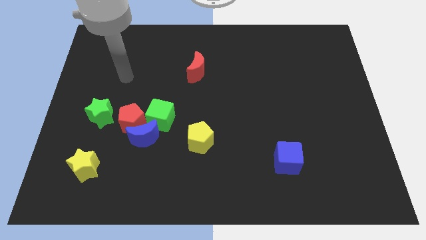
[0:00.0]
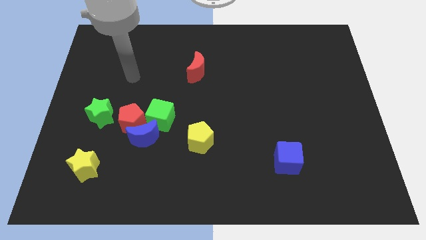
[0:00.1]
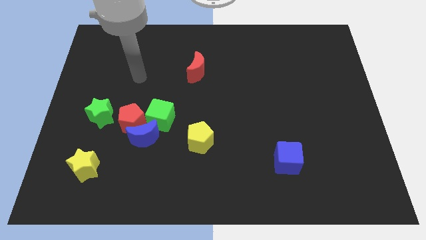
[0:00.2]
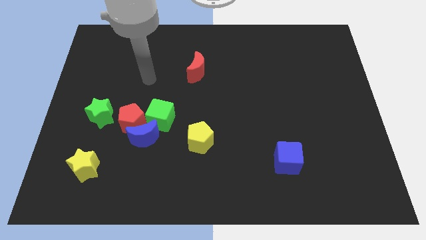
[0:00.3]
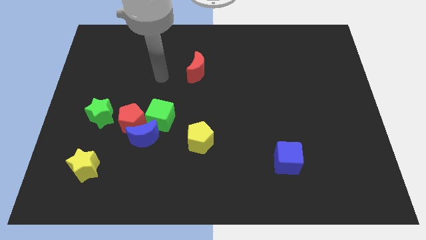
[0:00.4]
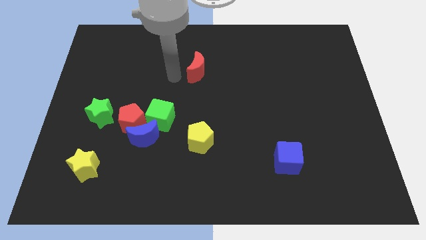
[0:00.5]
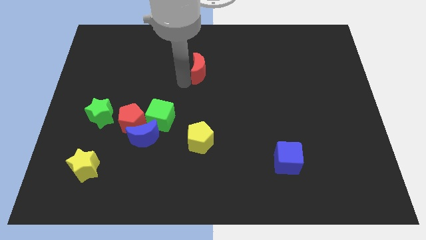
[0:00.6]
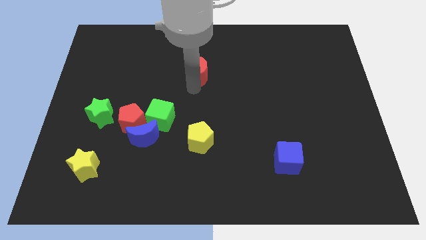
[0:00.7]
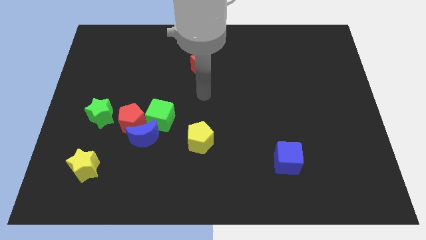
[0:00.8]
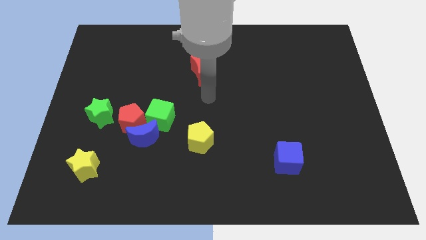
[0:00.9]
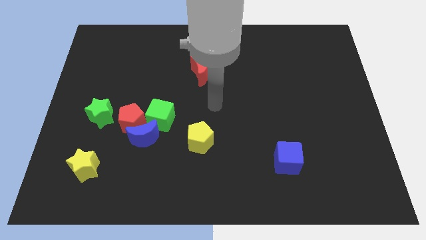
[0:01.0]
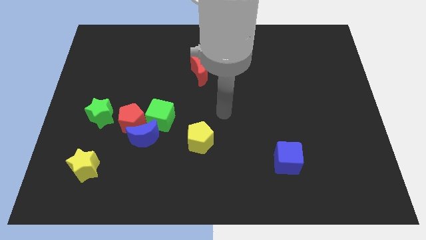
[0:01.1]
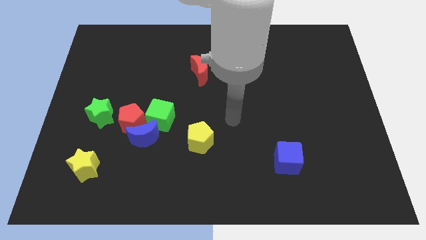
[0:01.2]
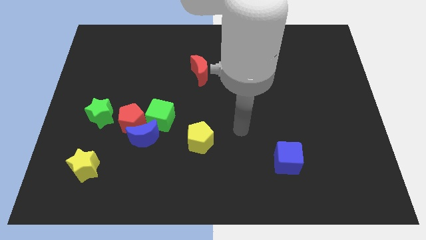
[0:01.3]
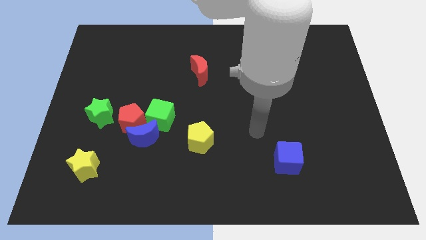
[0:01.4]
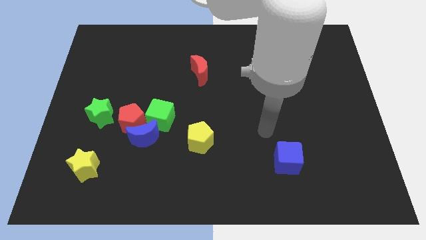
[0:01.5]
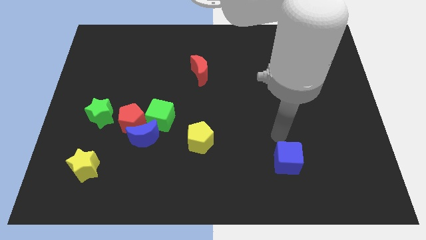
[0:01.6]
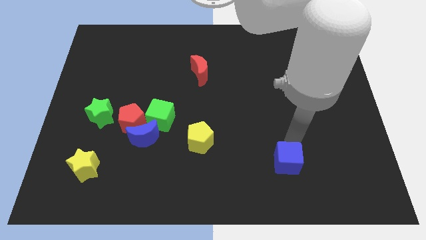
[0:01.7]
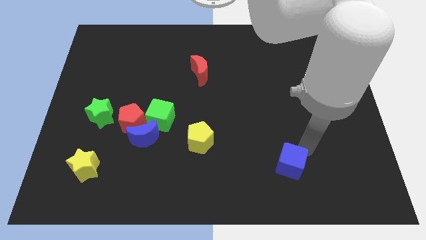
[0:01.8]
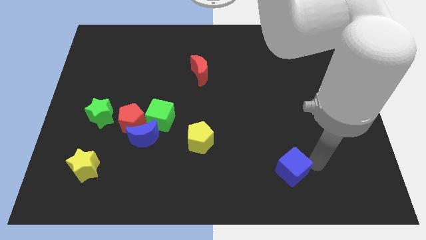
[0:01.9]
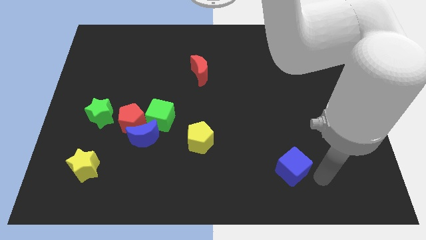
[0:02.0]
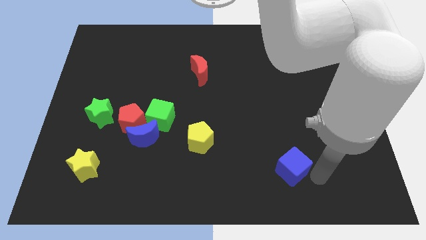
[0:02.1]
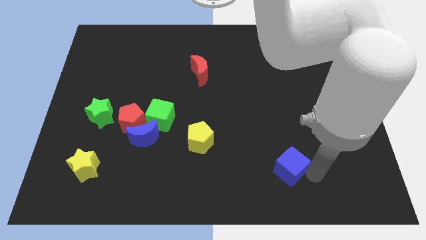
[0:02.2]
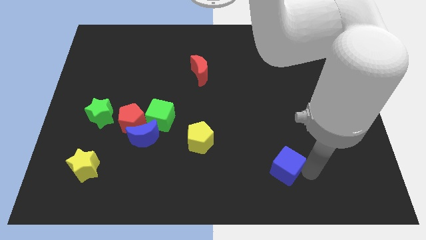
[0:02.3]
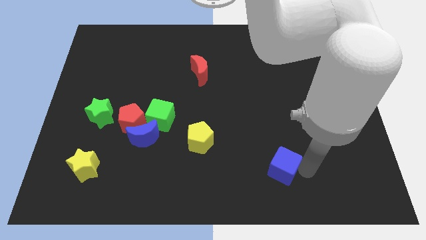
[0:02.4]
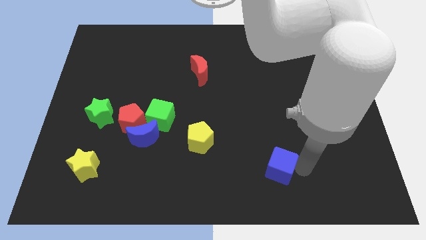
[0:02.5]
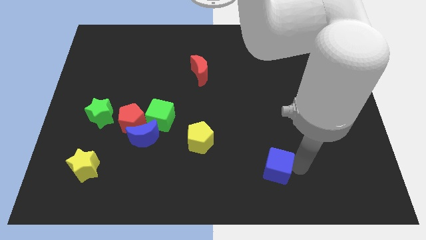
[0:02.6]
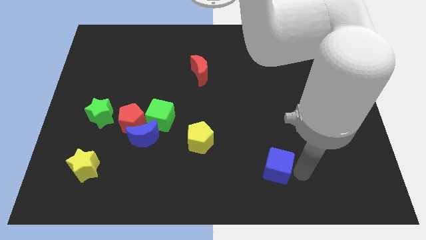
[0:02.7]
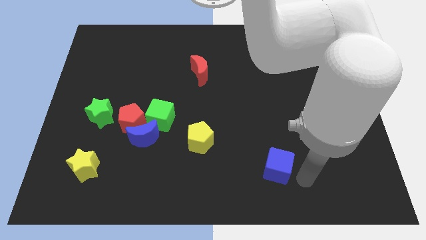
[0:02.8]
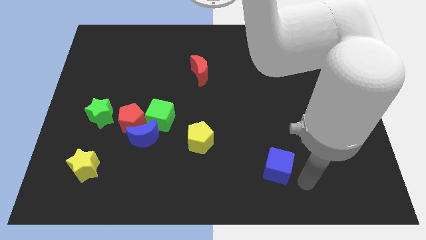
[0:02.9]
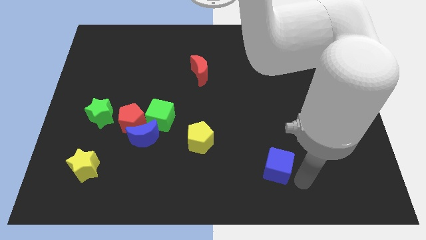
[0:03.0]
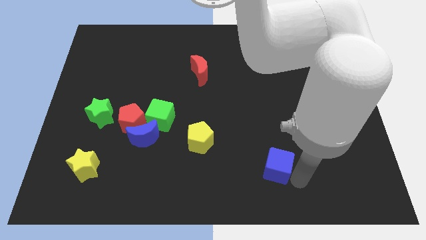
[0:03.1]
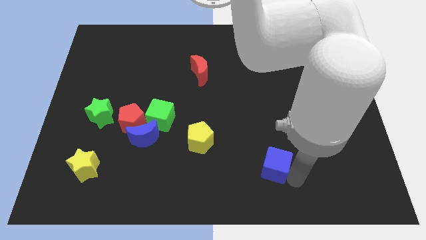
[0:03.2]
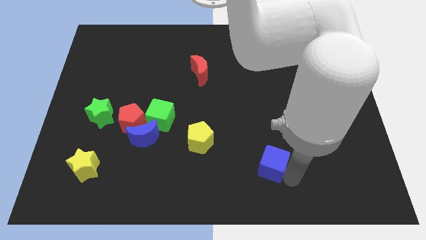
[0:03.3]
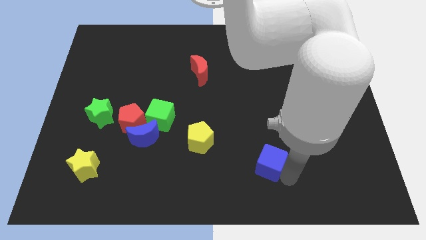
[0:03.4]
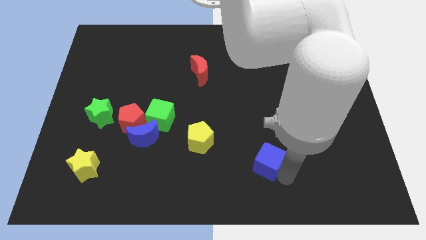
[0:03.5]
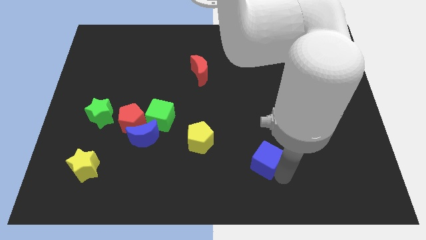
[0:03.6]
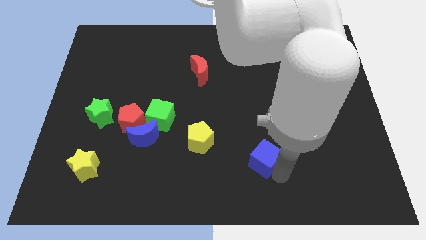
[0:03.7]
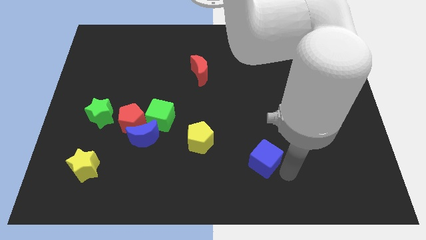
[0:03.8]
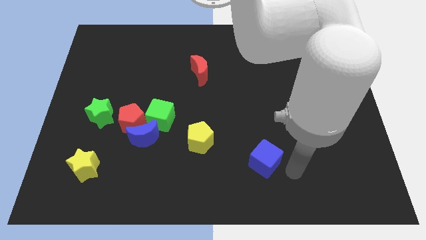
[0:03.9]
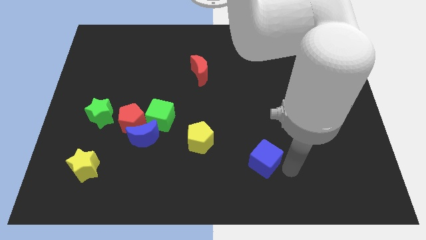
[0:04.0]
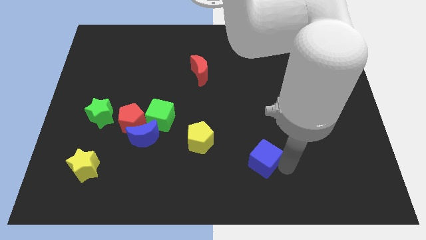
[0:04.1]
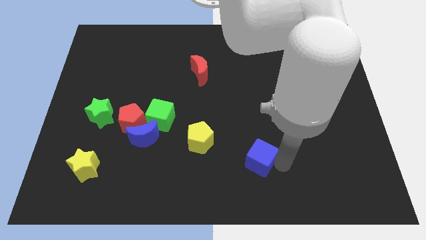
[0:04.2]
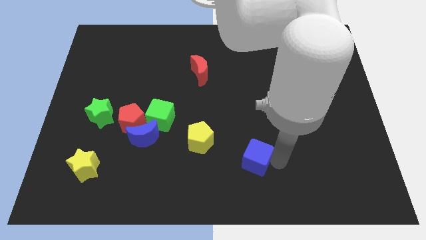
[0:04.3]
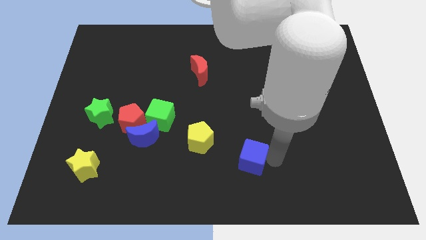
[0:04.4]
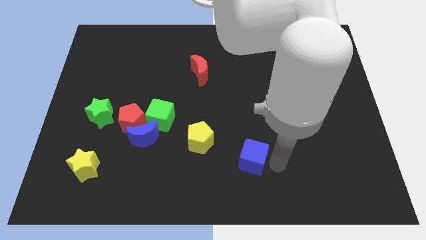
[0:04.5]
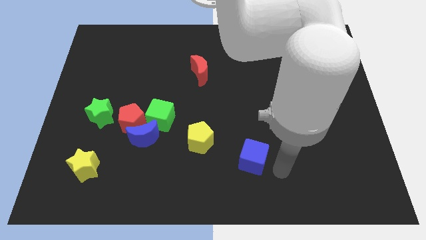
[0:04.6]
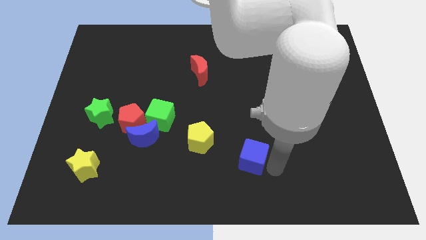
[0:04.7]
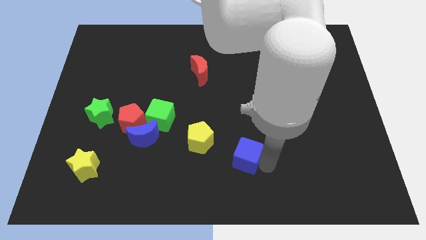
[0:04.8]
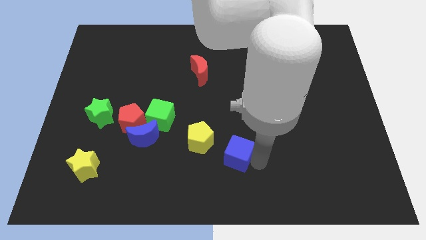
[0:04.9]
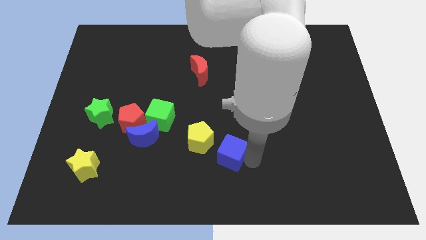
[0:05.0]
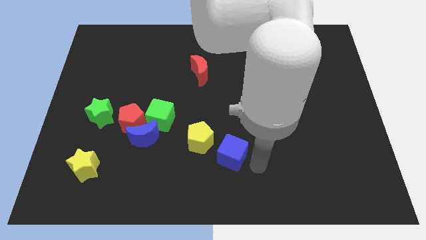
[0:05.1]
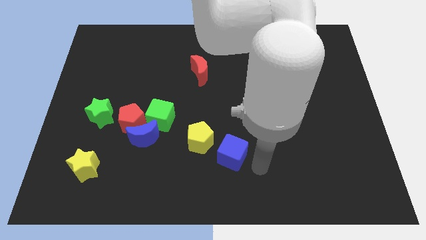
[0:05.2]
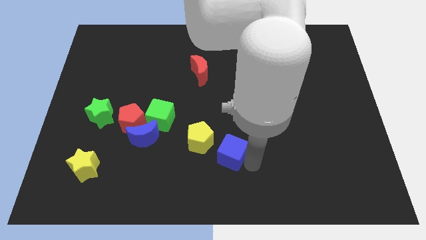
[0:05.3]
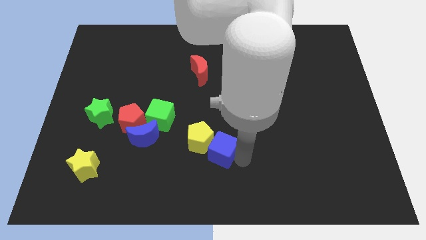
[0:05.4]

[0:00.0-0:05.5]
move the blue cube close to the yellow pentagon

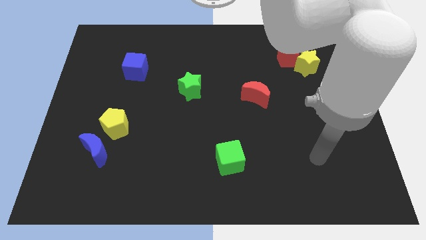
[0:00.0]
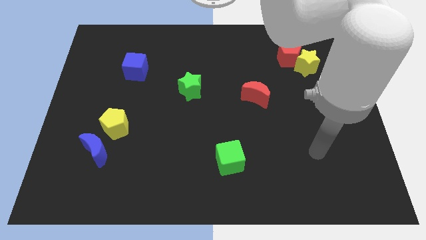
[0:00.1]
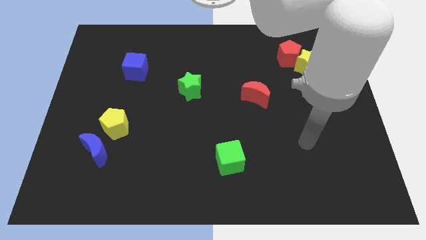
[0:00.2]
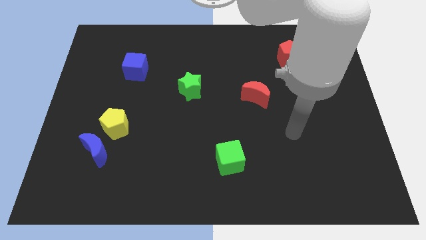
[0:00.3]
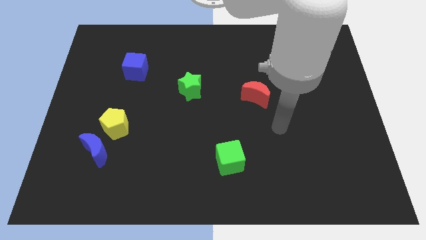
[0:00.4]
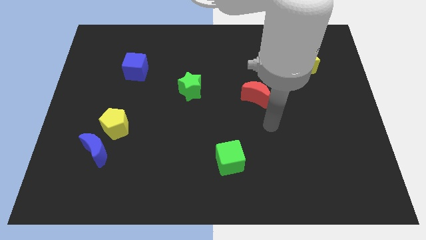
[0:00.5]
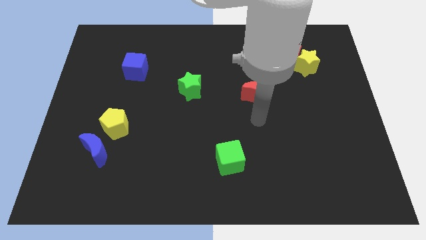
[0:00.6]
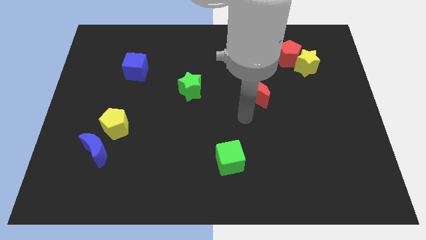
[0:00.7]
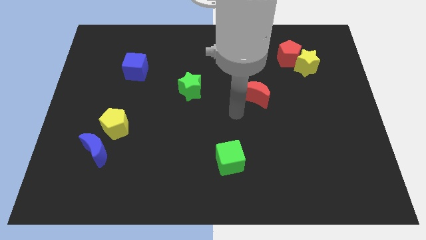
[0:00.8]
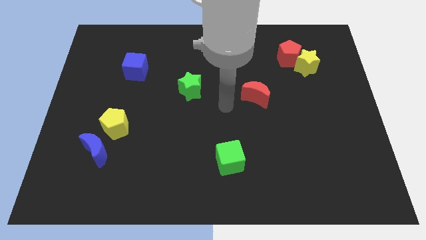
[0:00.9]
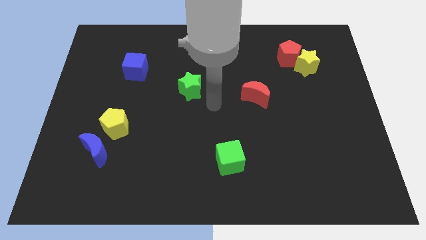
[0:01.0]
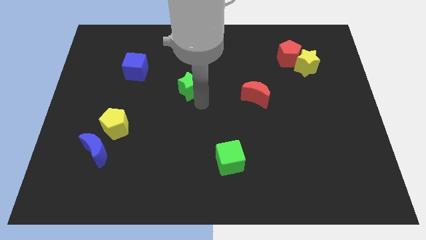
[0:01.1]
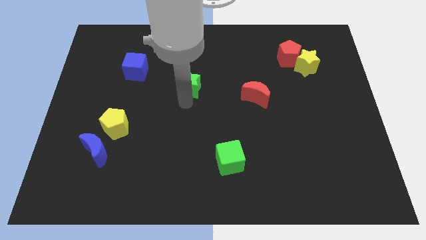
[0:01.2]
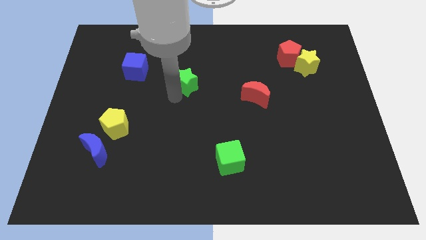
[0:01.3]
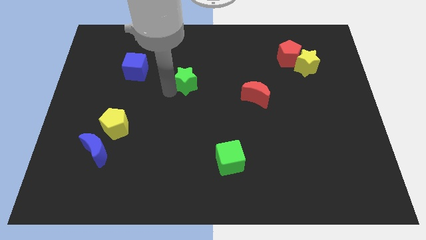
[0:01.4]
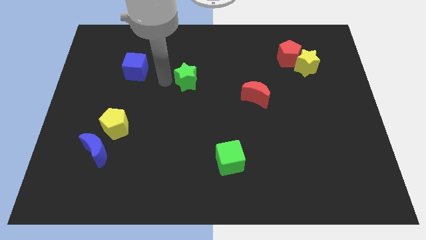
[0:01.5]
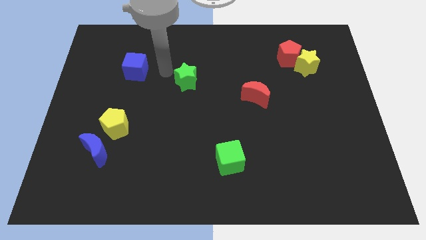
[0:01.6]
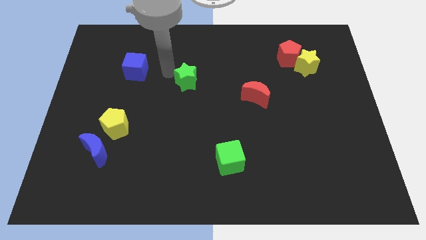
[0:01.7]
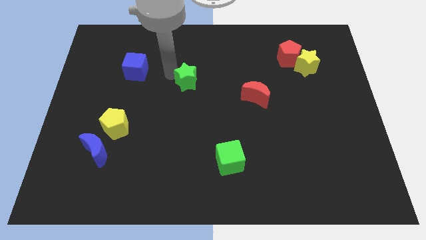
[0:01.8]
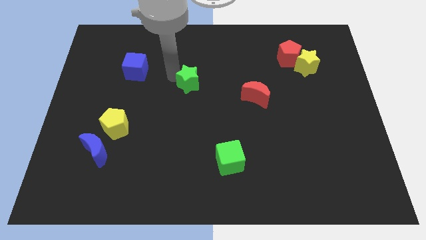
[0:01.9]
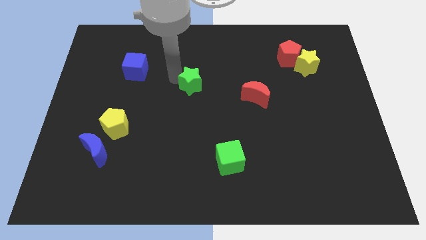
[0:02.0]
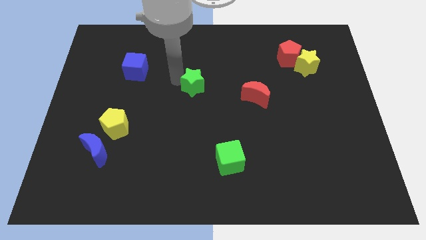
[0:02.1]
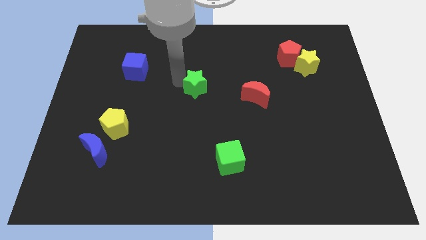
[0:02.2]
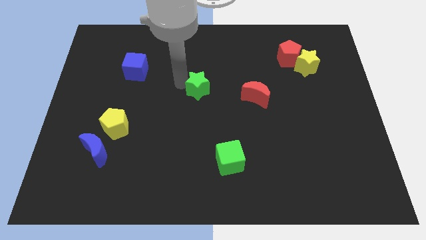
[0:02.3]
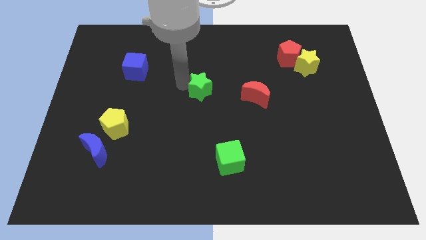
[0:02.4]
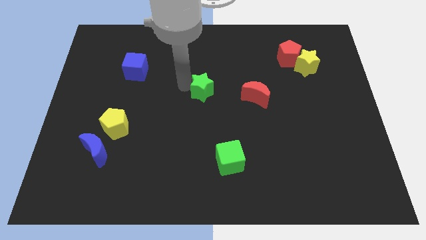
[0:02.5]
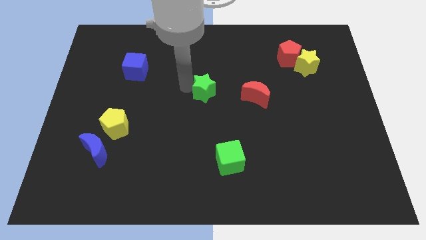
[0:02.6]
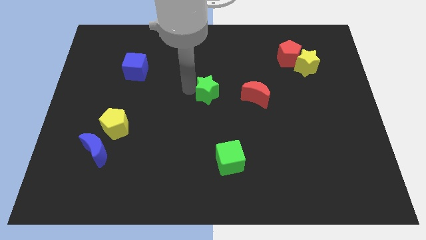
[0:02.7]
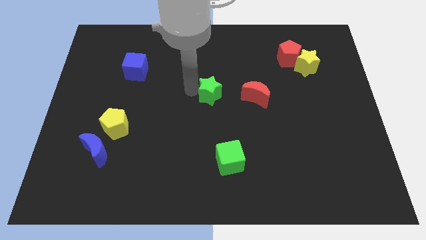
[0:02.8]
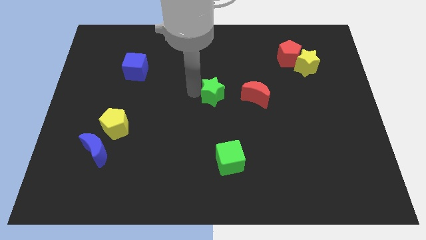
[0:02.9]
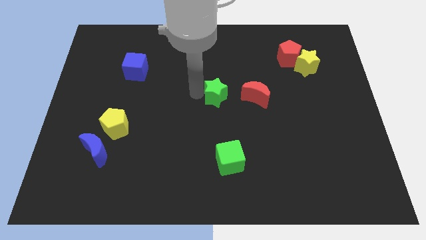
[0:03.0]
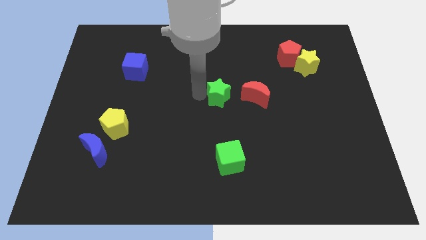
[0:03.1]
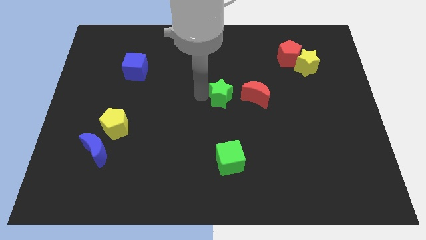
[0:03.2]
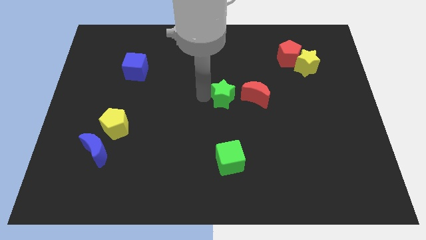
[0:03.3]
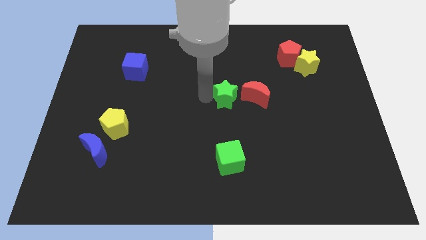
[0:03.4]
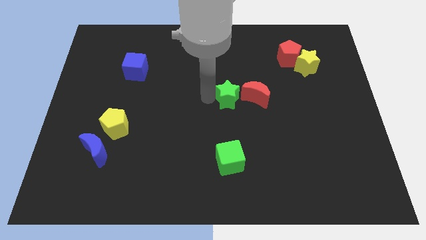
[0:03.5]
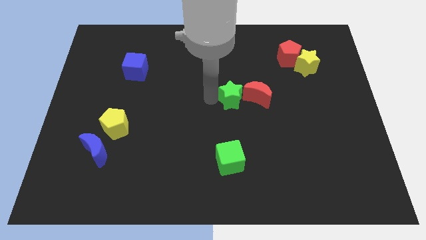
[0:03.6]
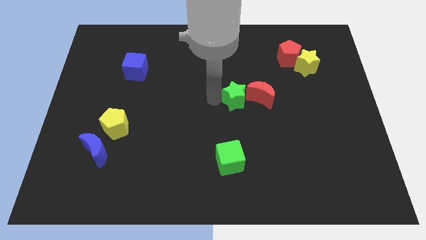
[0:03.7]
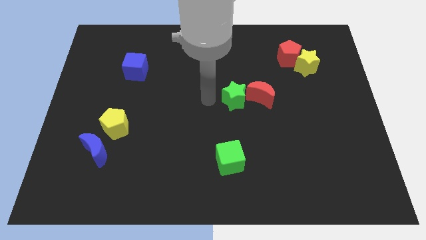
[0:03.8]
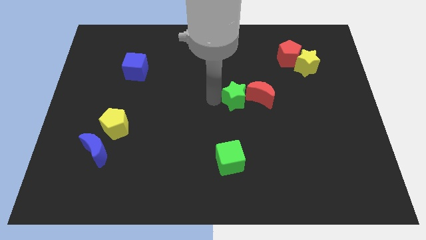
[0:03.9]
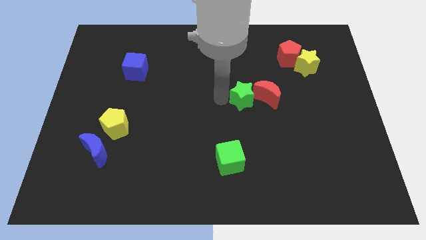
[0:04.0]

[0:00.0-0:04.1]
push the green star close to the red moon
